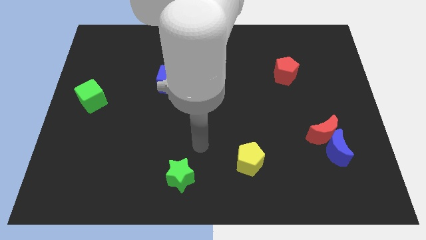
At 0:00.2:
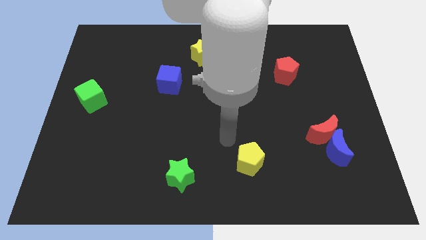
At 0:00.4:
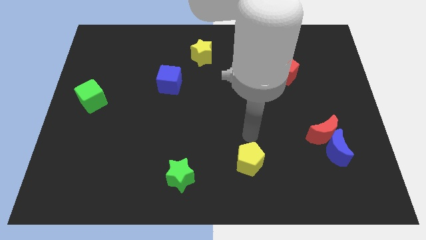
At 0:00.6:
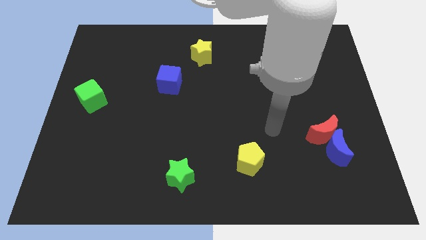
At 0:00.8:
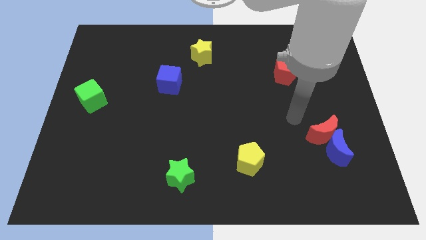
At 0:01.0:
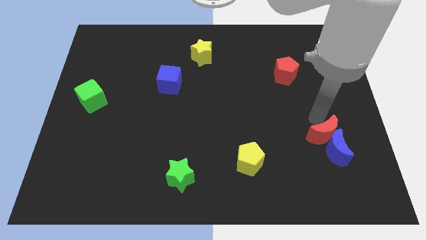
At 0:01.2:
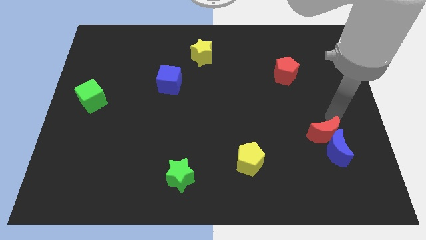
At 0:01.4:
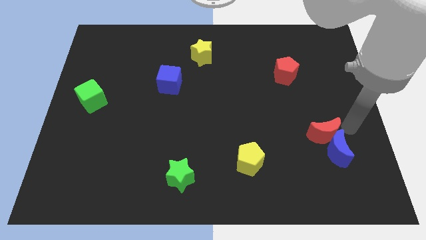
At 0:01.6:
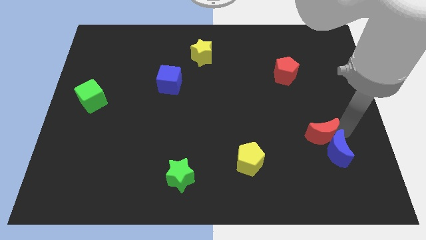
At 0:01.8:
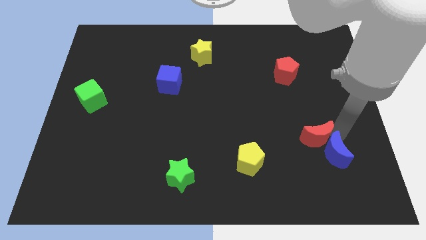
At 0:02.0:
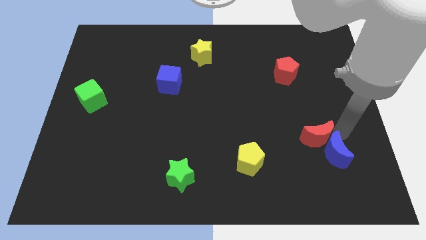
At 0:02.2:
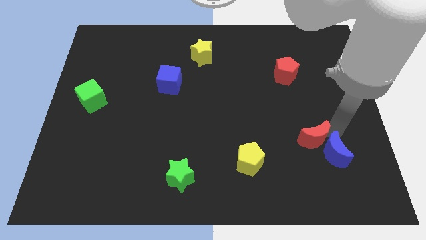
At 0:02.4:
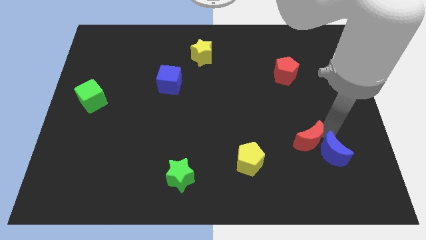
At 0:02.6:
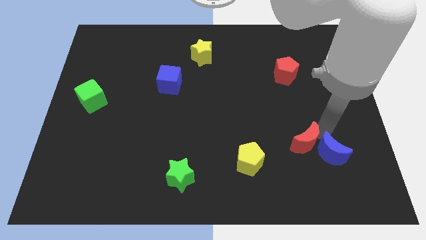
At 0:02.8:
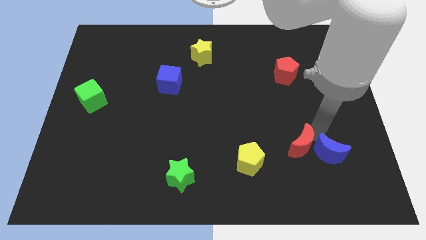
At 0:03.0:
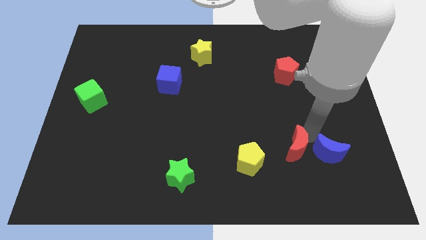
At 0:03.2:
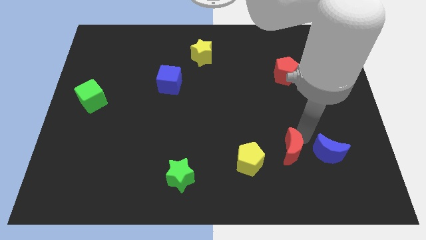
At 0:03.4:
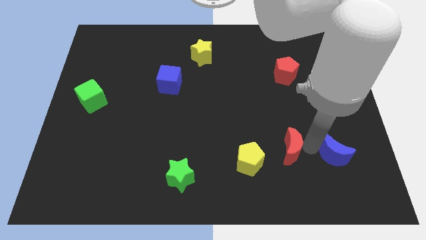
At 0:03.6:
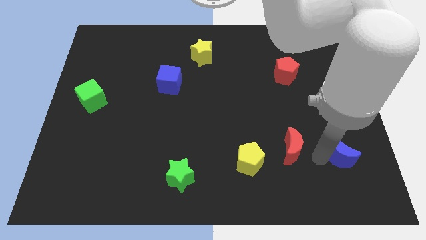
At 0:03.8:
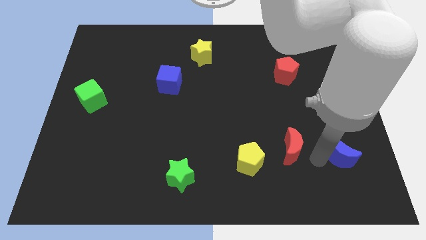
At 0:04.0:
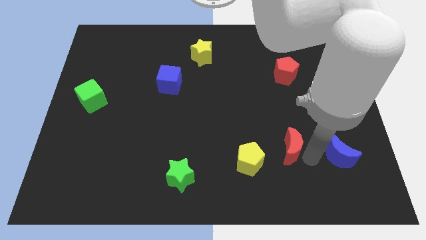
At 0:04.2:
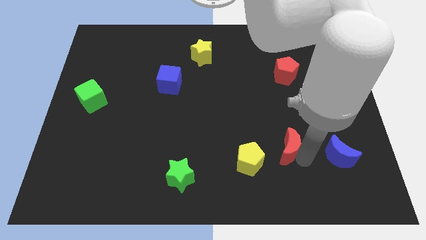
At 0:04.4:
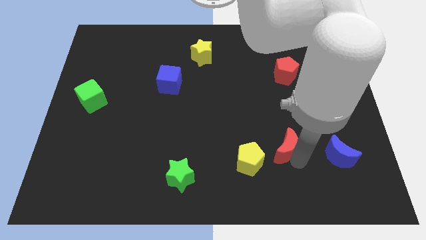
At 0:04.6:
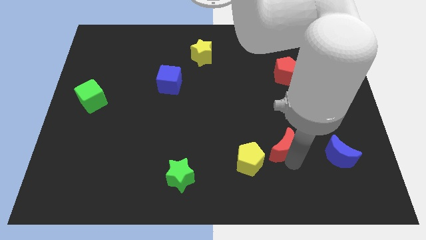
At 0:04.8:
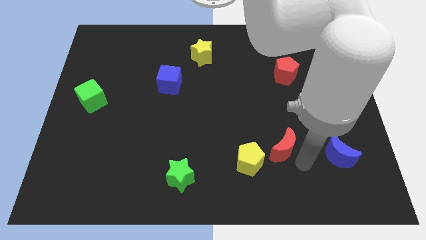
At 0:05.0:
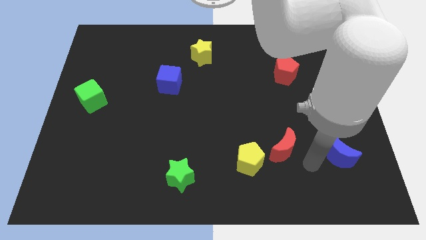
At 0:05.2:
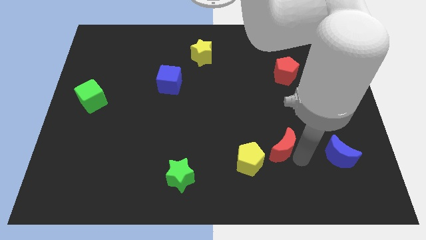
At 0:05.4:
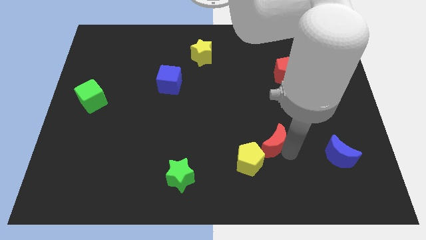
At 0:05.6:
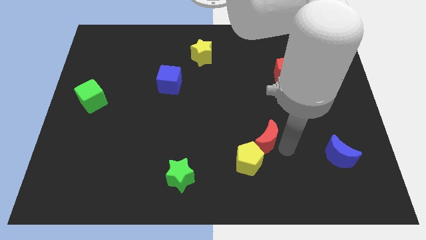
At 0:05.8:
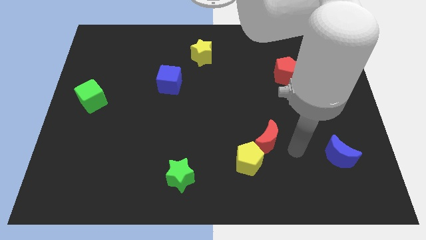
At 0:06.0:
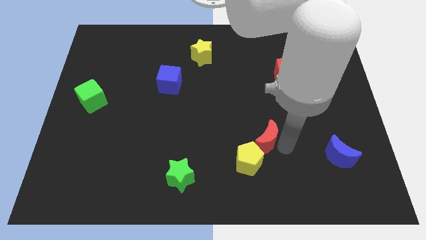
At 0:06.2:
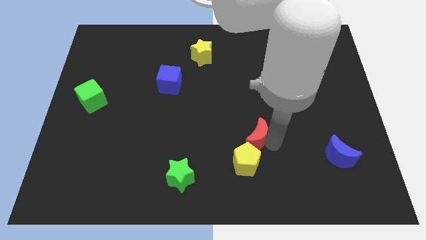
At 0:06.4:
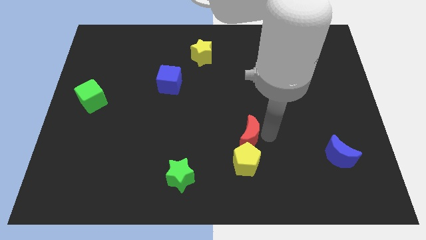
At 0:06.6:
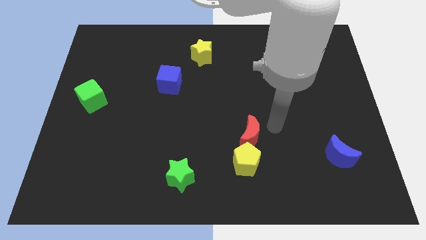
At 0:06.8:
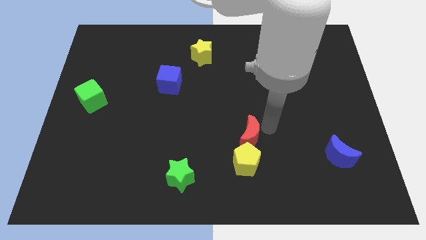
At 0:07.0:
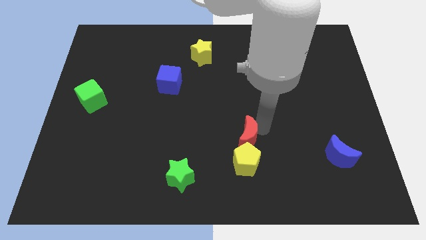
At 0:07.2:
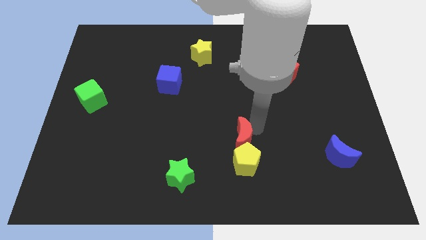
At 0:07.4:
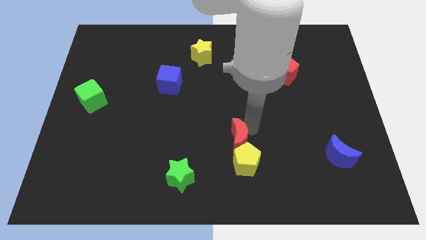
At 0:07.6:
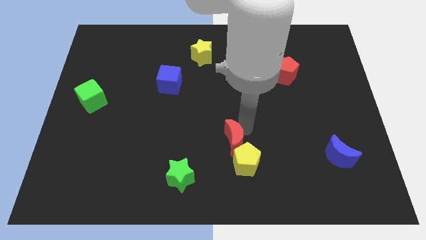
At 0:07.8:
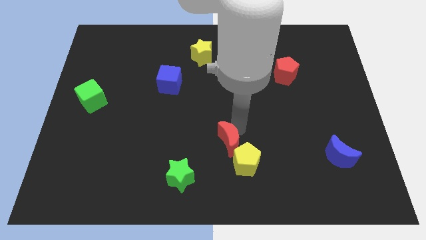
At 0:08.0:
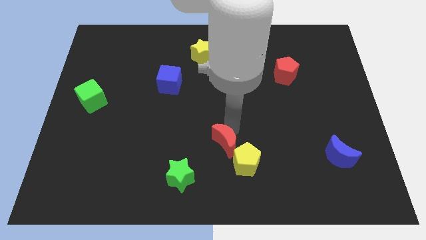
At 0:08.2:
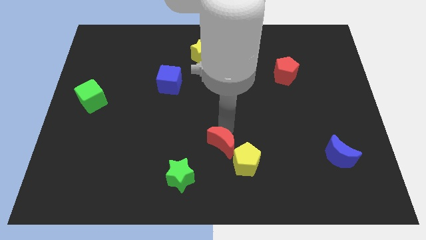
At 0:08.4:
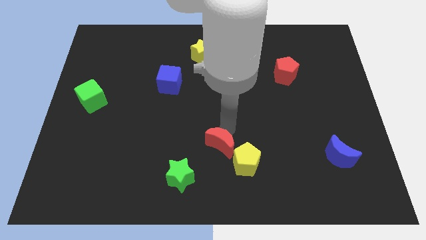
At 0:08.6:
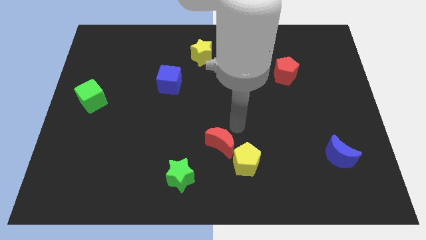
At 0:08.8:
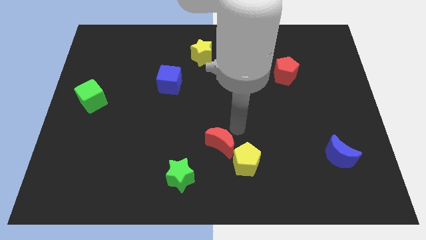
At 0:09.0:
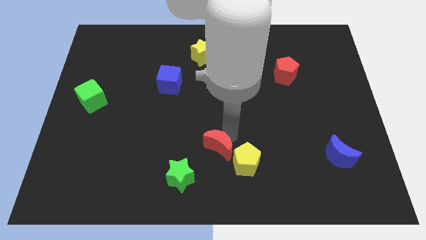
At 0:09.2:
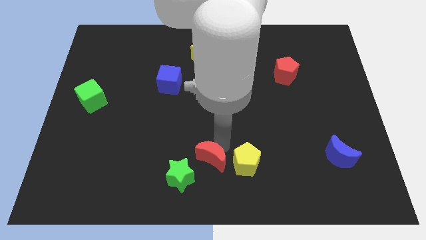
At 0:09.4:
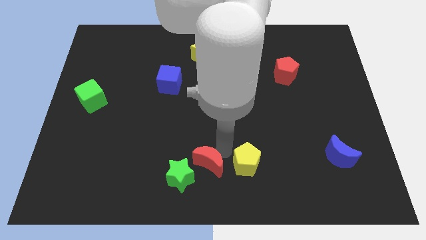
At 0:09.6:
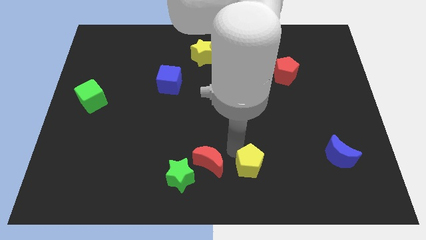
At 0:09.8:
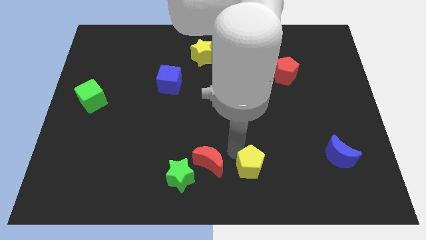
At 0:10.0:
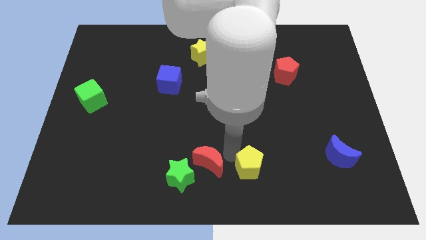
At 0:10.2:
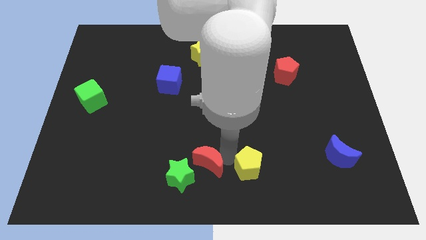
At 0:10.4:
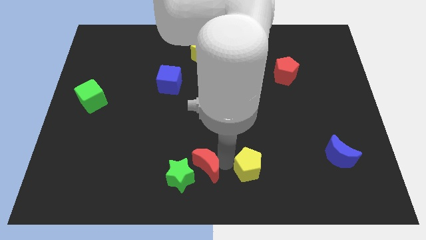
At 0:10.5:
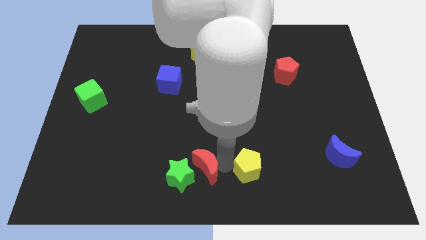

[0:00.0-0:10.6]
move the red moon close to the green star

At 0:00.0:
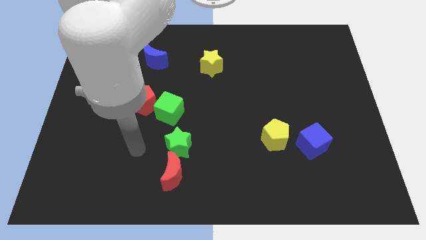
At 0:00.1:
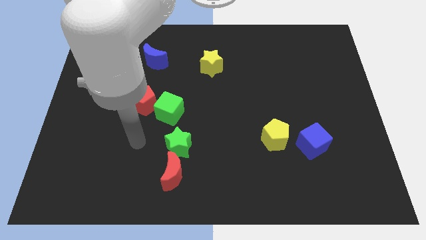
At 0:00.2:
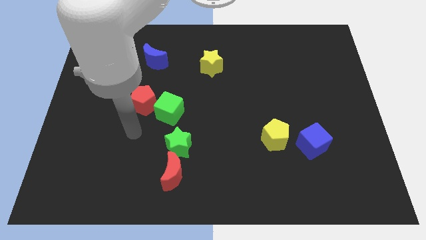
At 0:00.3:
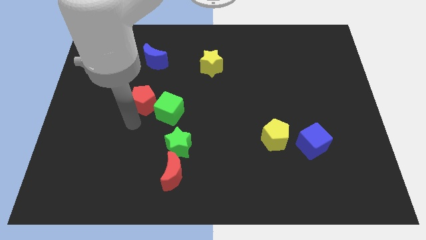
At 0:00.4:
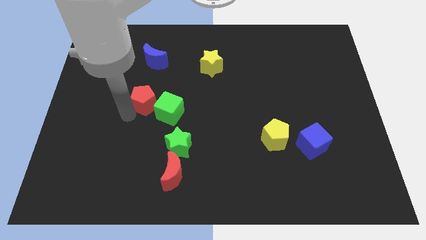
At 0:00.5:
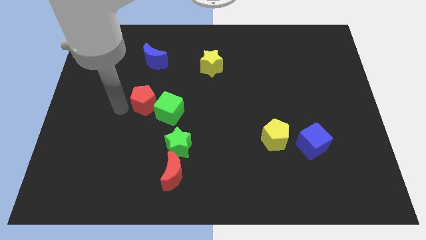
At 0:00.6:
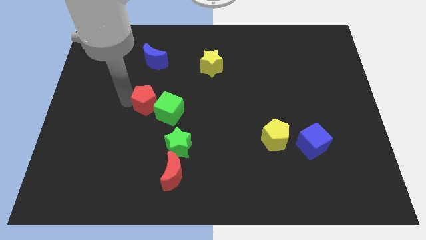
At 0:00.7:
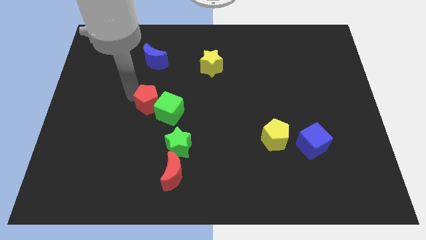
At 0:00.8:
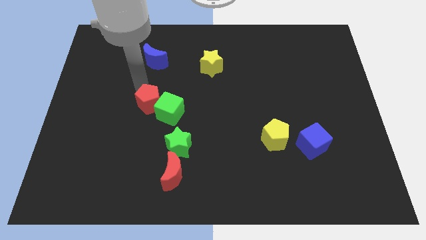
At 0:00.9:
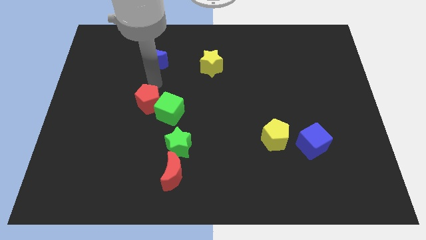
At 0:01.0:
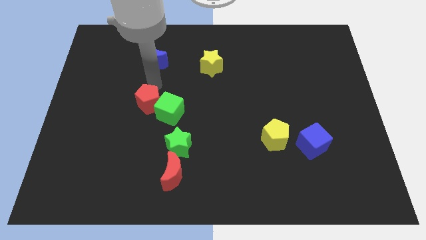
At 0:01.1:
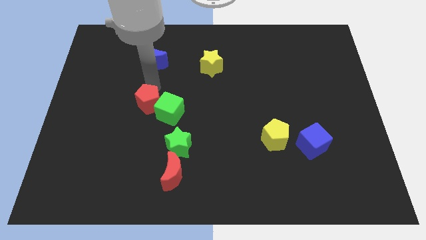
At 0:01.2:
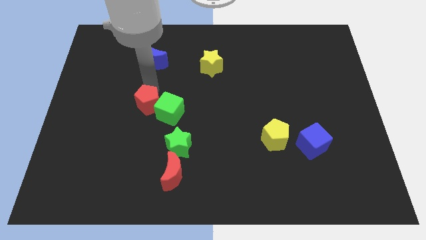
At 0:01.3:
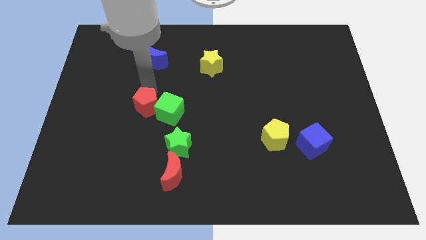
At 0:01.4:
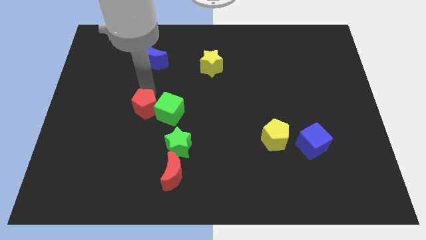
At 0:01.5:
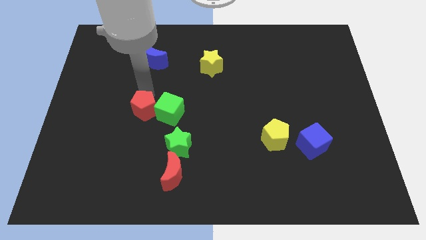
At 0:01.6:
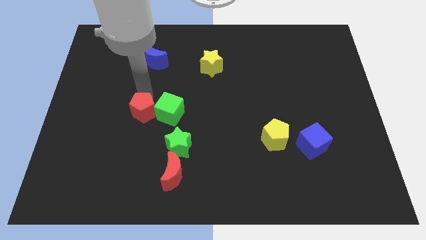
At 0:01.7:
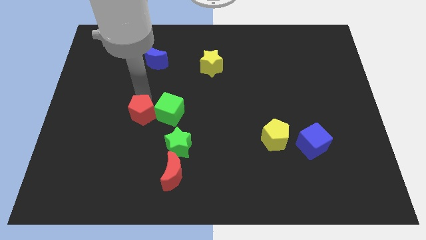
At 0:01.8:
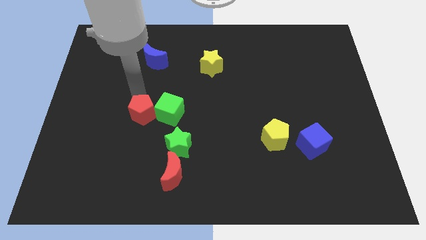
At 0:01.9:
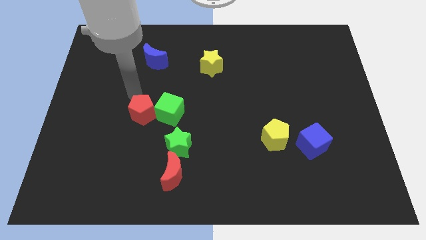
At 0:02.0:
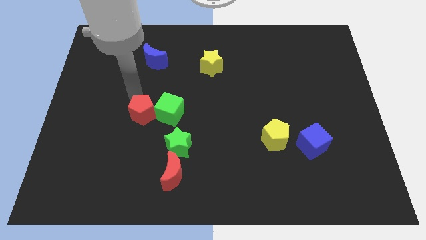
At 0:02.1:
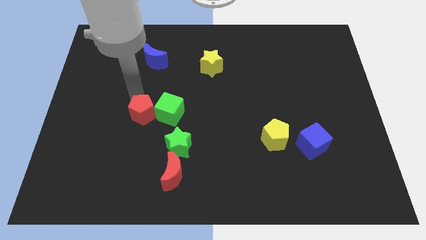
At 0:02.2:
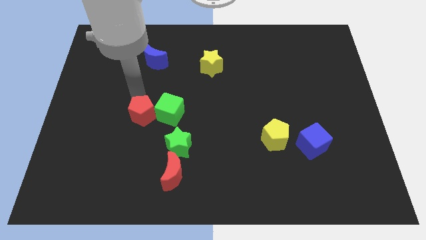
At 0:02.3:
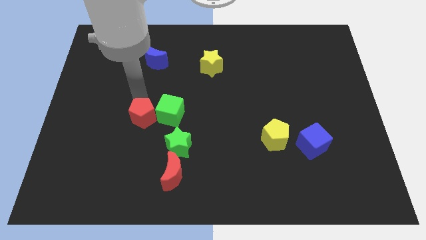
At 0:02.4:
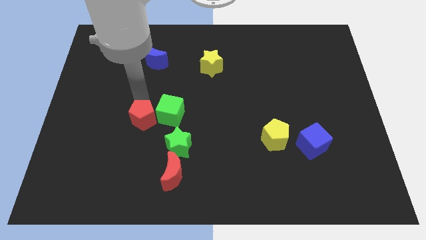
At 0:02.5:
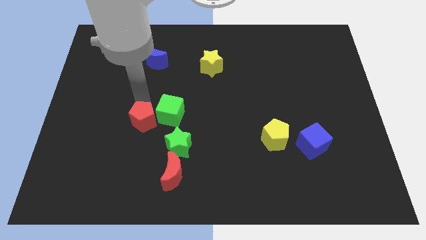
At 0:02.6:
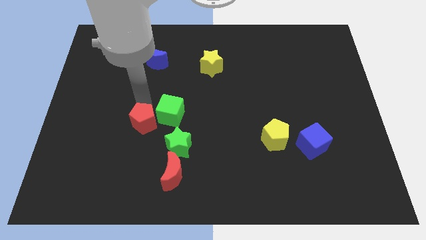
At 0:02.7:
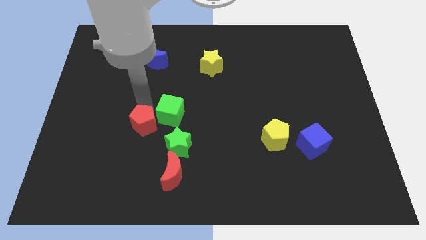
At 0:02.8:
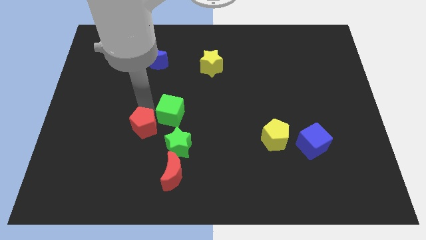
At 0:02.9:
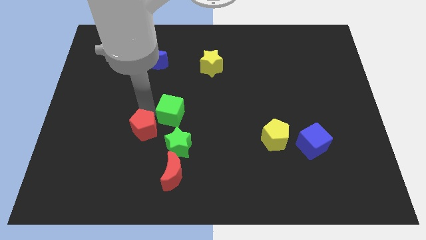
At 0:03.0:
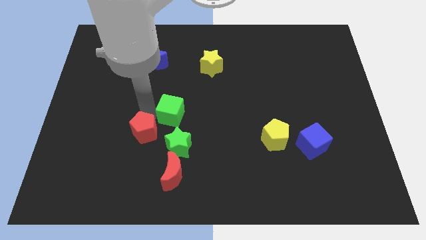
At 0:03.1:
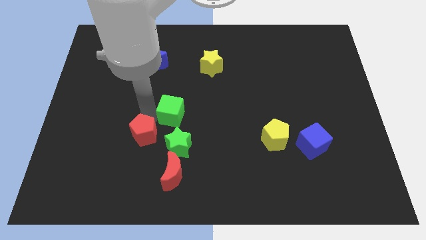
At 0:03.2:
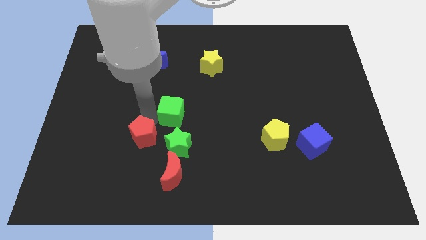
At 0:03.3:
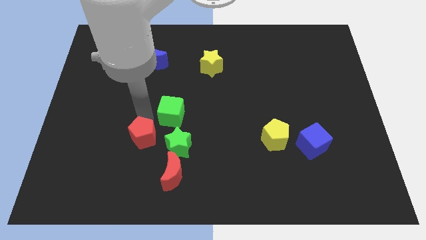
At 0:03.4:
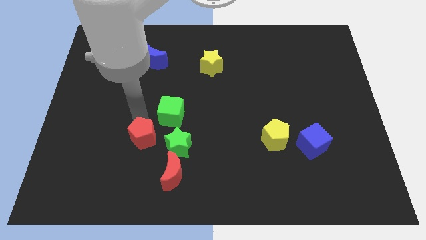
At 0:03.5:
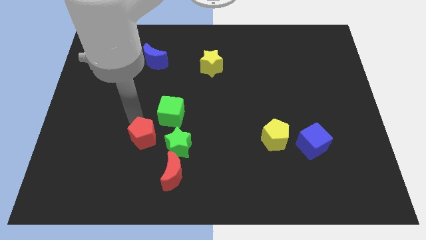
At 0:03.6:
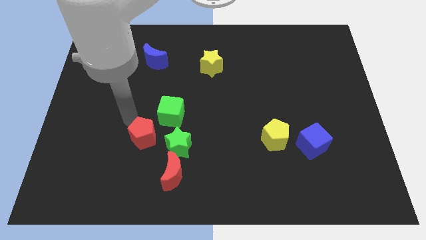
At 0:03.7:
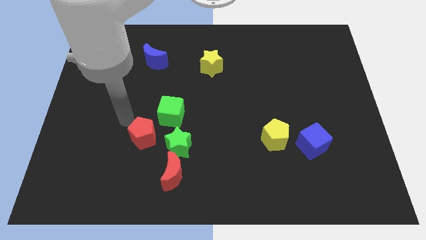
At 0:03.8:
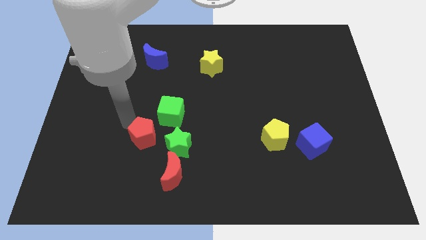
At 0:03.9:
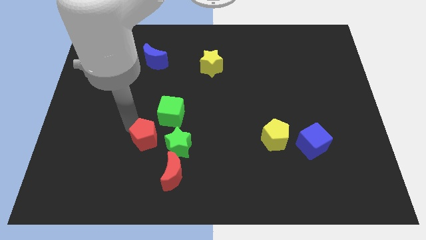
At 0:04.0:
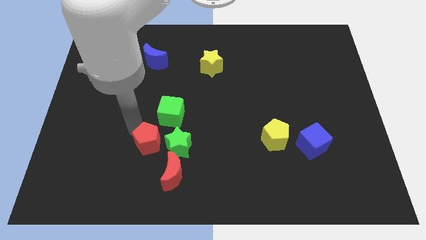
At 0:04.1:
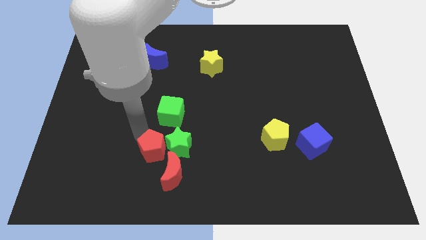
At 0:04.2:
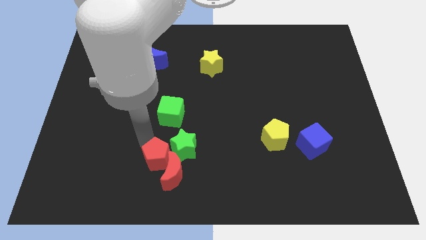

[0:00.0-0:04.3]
move the red pentagon next to the red moon
